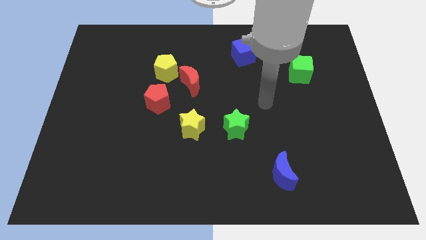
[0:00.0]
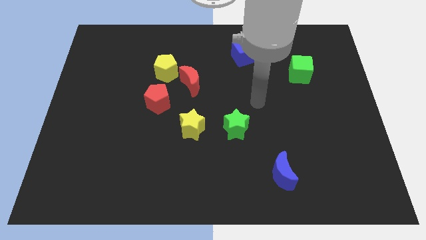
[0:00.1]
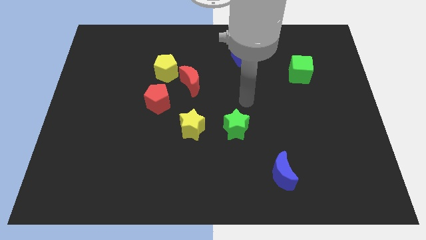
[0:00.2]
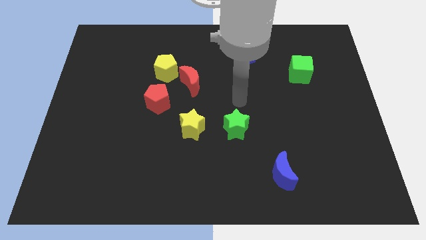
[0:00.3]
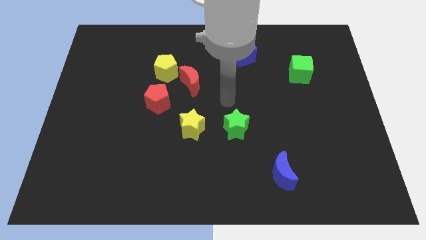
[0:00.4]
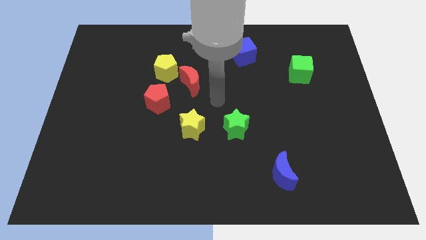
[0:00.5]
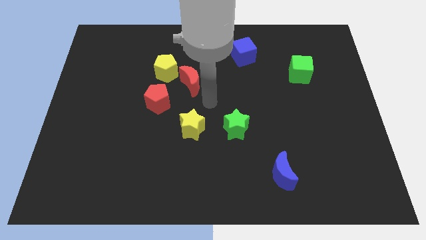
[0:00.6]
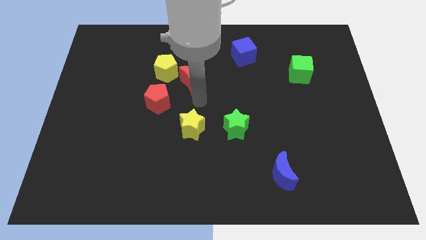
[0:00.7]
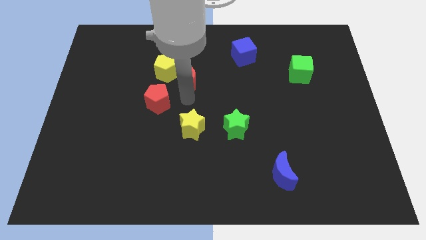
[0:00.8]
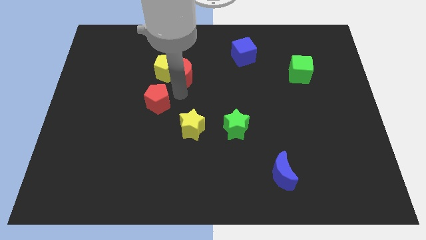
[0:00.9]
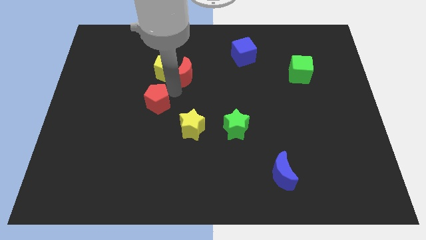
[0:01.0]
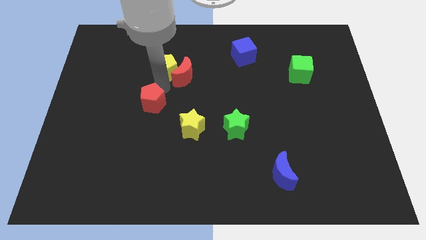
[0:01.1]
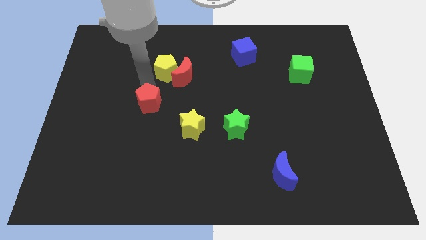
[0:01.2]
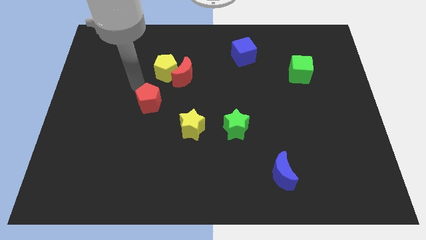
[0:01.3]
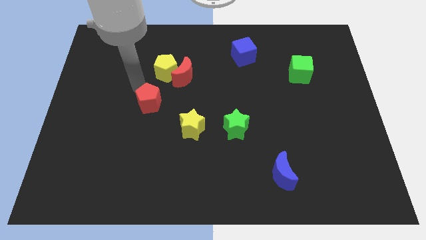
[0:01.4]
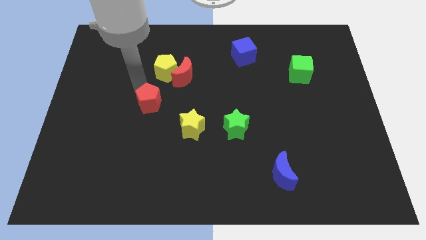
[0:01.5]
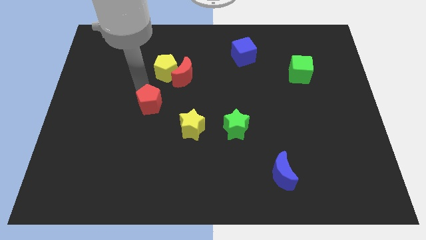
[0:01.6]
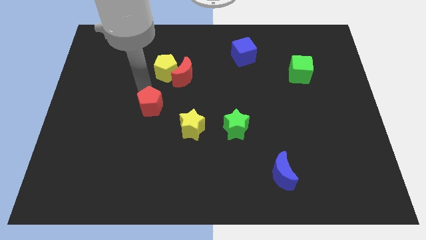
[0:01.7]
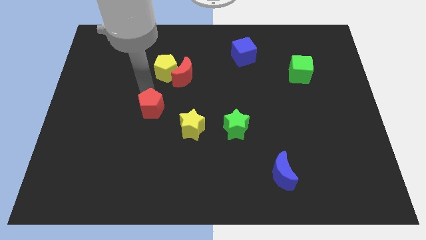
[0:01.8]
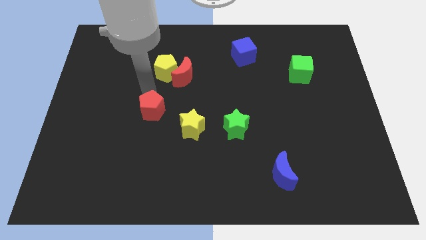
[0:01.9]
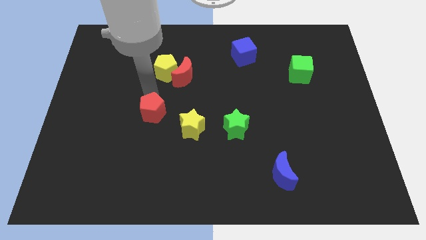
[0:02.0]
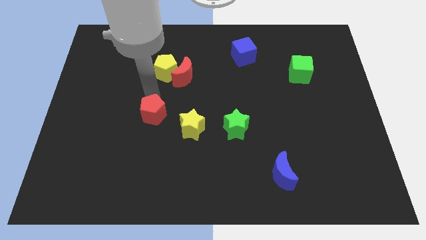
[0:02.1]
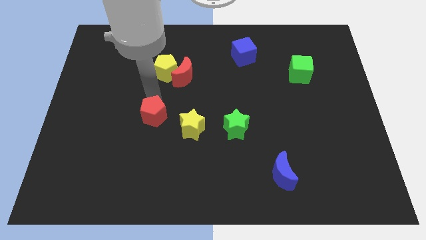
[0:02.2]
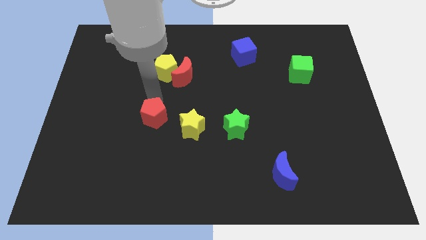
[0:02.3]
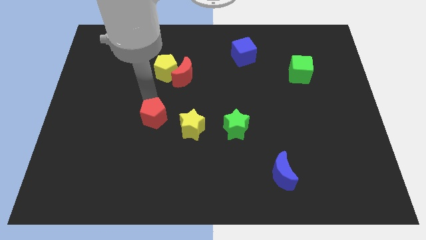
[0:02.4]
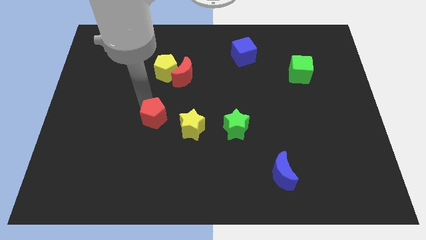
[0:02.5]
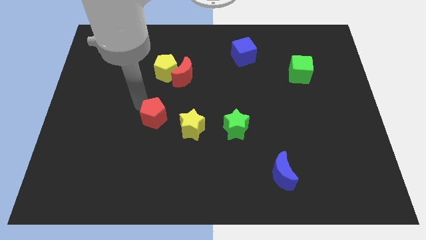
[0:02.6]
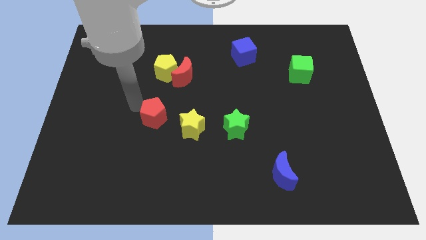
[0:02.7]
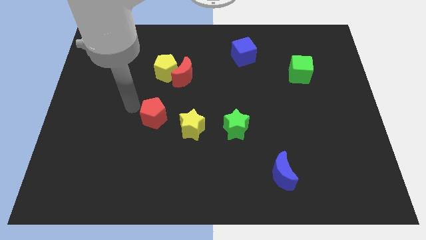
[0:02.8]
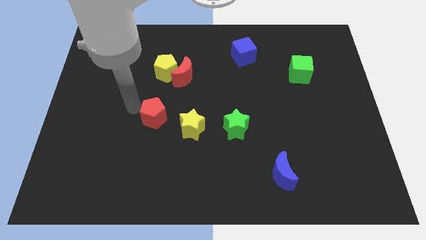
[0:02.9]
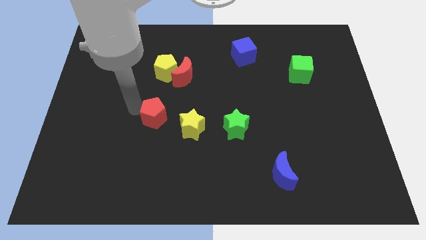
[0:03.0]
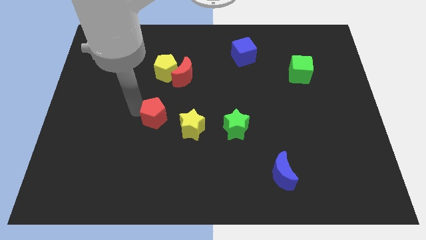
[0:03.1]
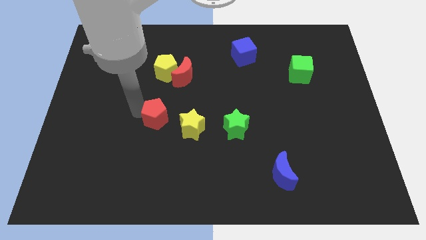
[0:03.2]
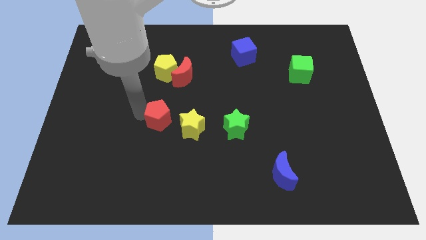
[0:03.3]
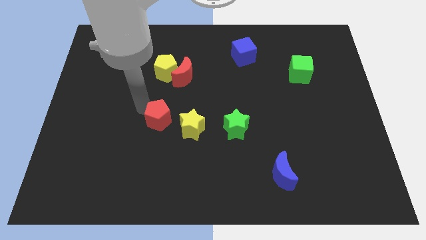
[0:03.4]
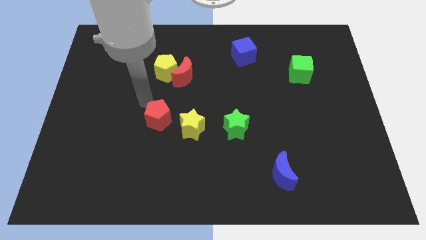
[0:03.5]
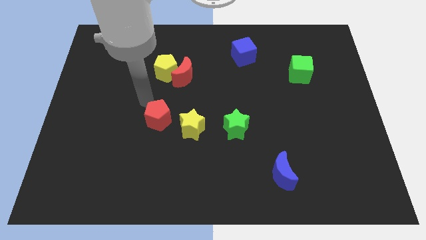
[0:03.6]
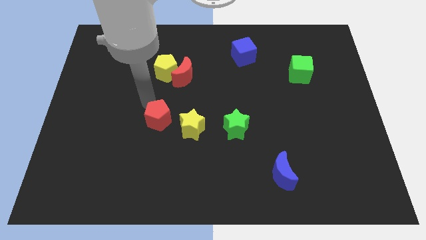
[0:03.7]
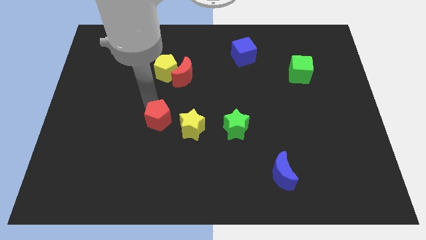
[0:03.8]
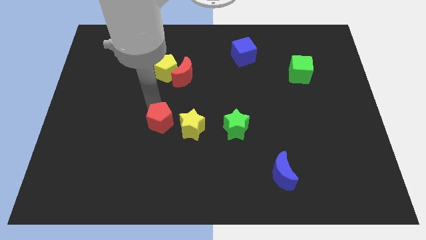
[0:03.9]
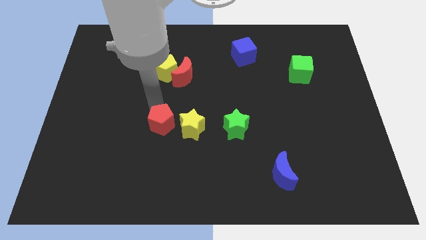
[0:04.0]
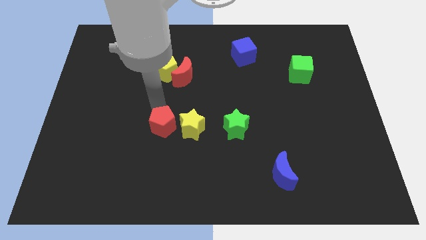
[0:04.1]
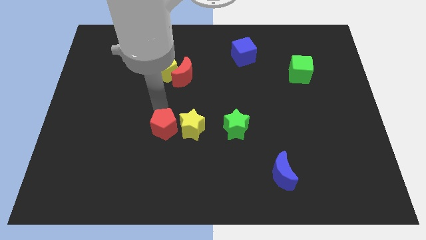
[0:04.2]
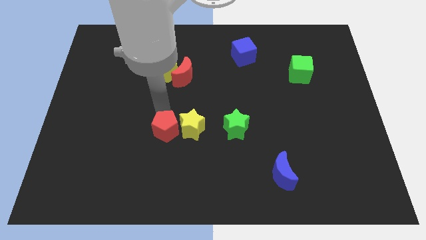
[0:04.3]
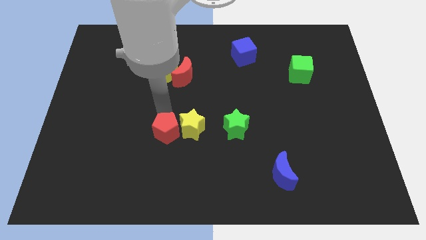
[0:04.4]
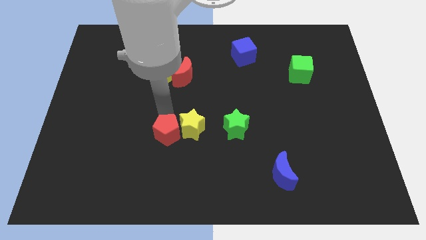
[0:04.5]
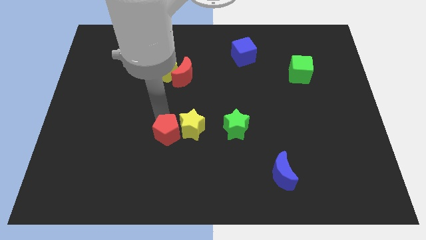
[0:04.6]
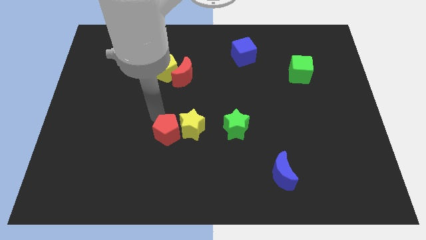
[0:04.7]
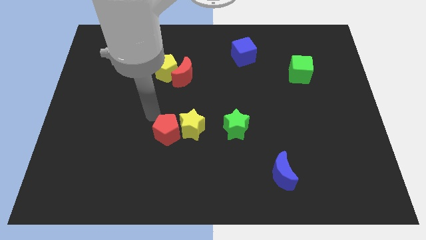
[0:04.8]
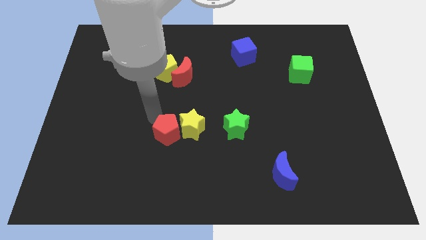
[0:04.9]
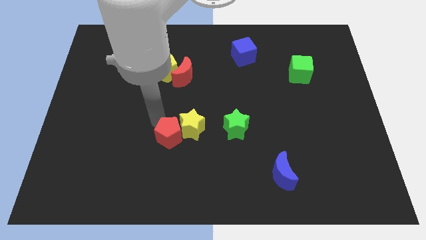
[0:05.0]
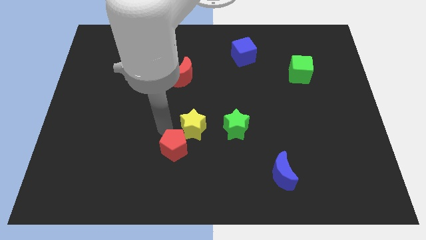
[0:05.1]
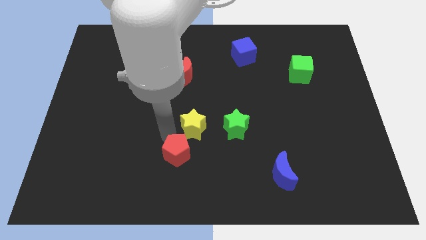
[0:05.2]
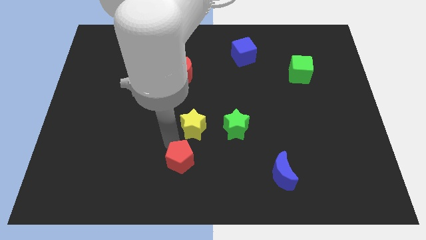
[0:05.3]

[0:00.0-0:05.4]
move the red pentagon to the bottom

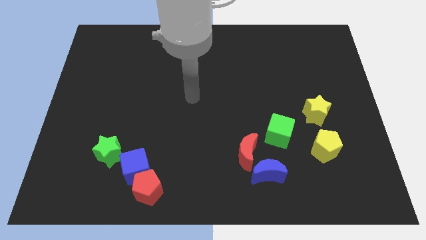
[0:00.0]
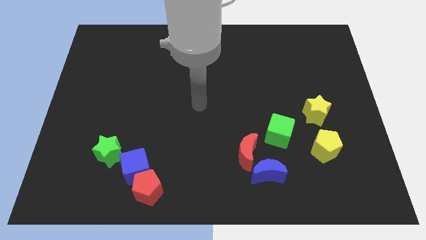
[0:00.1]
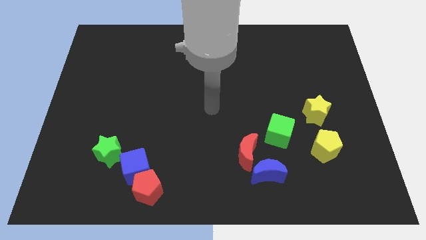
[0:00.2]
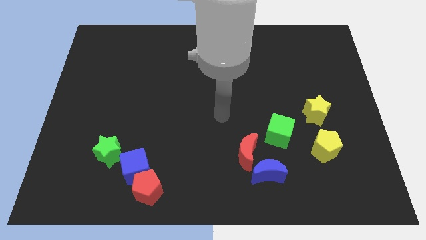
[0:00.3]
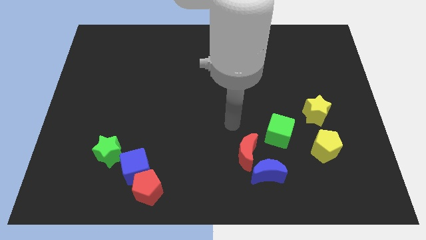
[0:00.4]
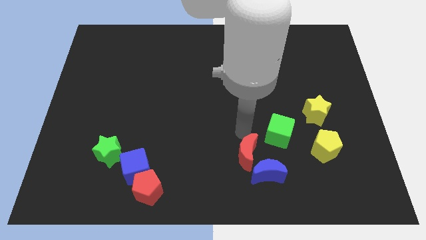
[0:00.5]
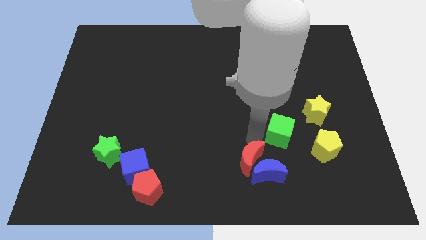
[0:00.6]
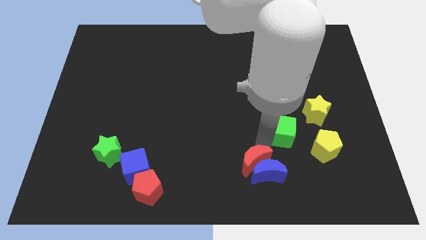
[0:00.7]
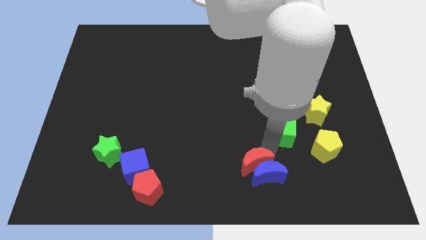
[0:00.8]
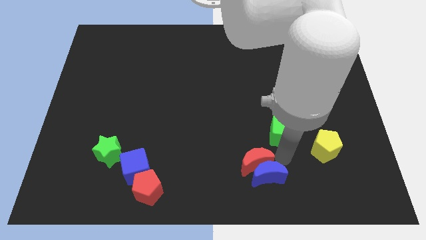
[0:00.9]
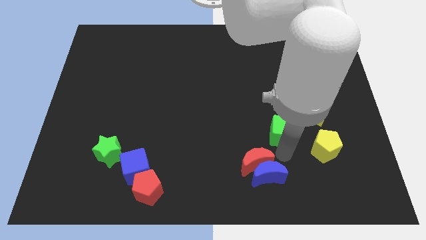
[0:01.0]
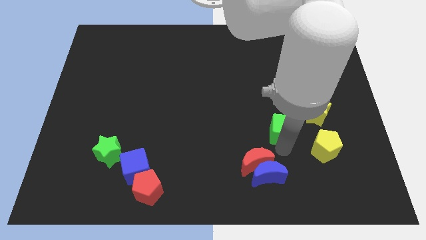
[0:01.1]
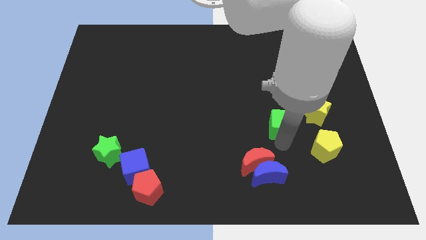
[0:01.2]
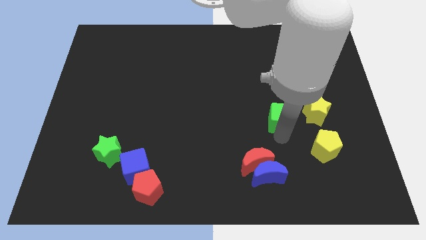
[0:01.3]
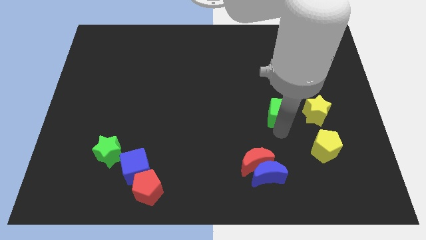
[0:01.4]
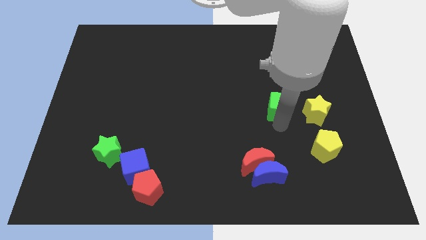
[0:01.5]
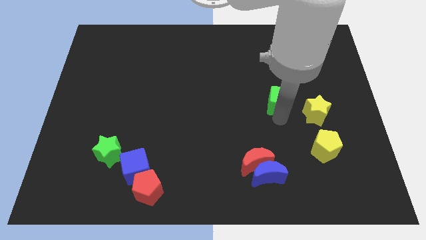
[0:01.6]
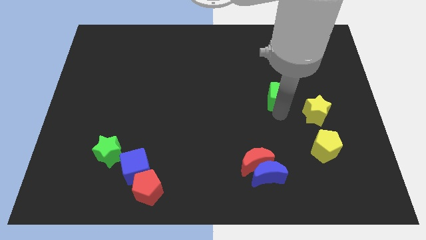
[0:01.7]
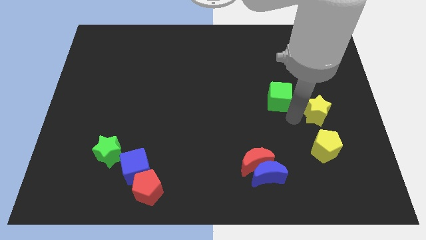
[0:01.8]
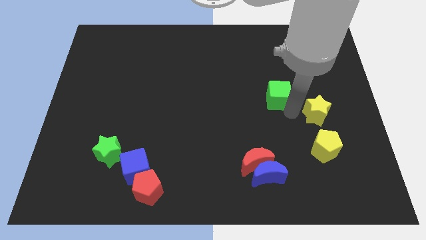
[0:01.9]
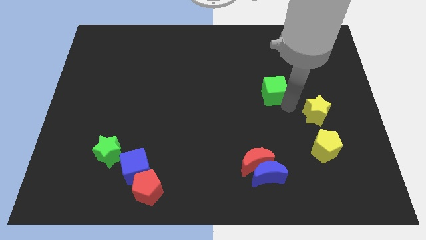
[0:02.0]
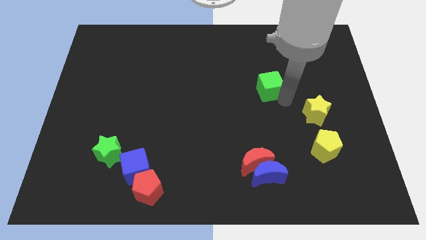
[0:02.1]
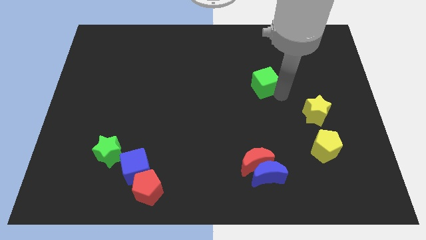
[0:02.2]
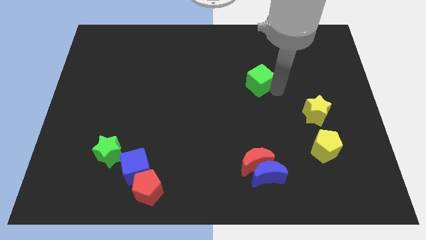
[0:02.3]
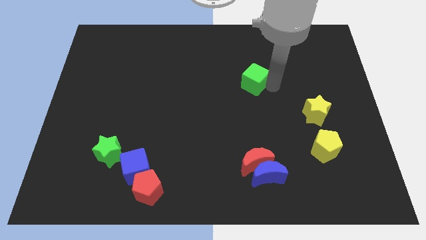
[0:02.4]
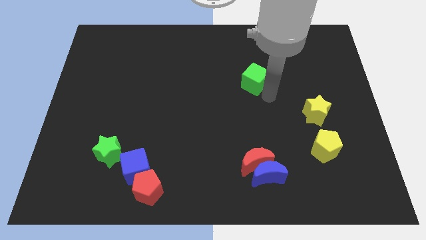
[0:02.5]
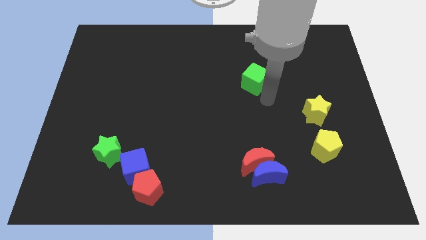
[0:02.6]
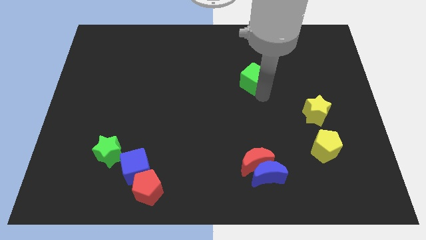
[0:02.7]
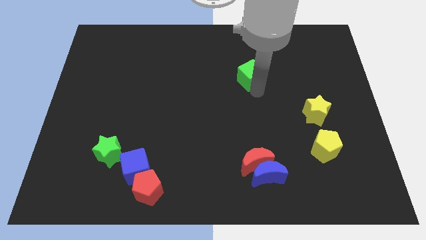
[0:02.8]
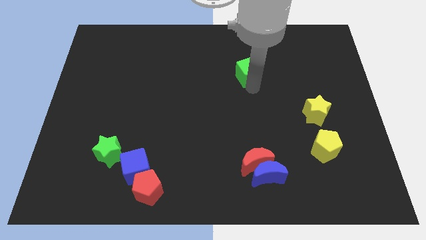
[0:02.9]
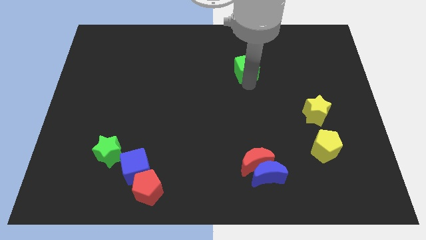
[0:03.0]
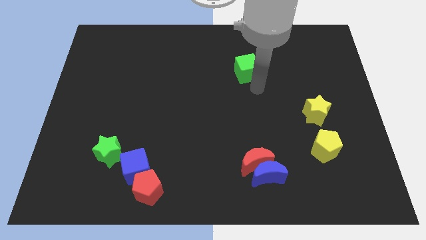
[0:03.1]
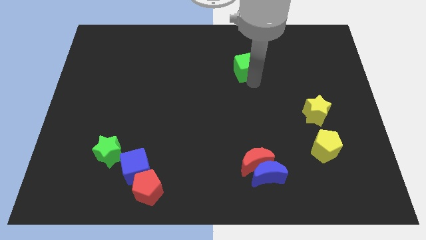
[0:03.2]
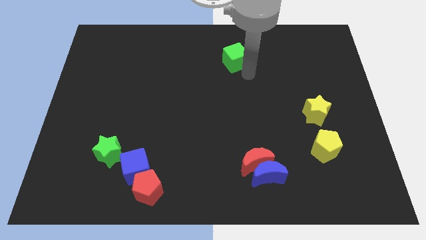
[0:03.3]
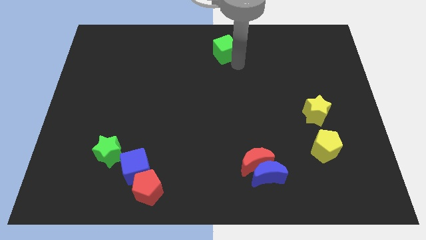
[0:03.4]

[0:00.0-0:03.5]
slide the green cube to the top side
